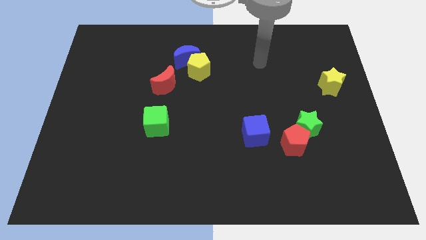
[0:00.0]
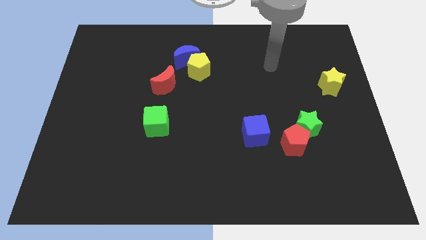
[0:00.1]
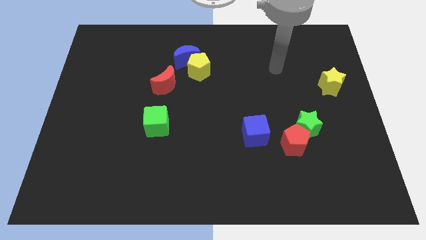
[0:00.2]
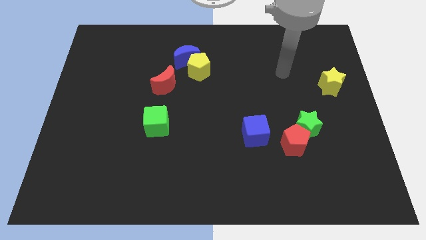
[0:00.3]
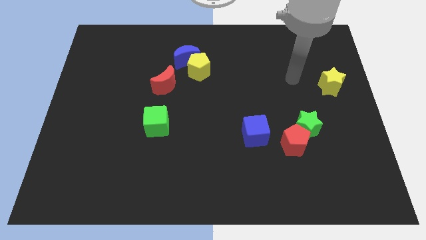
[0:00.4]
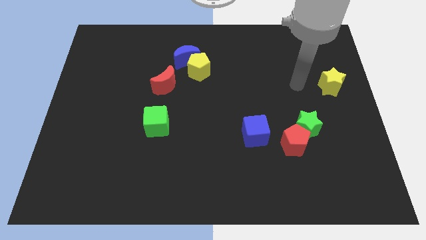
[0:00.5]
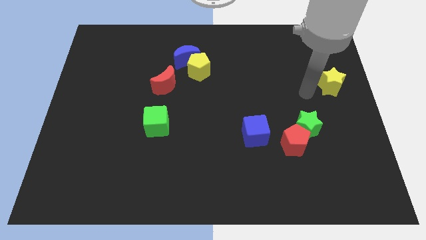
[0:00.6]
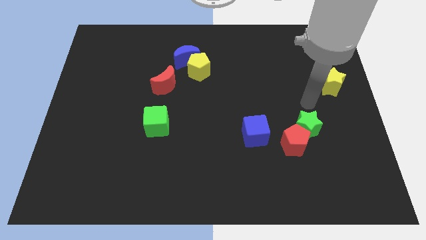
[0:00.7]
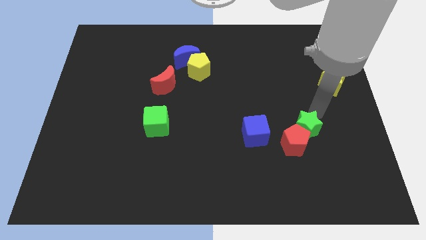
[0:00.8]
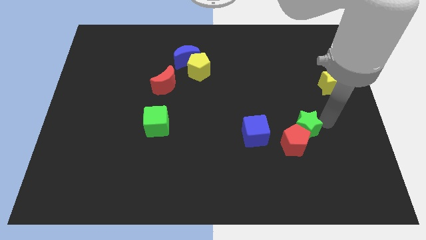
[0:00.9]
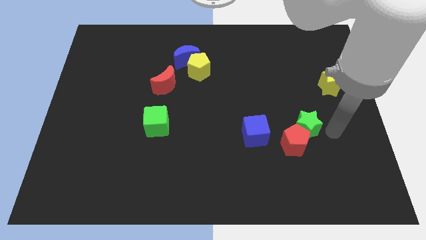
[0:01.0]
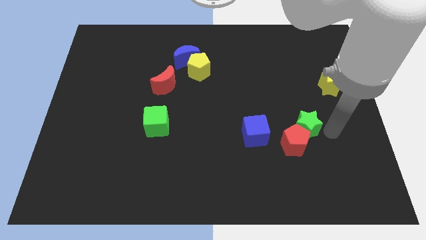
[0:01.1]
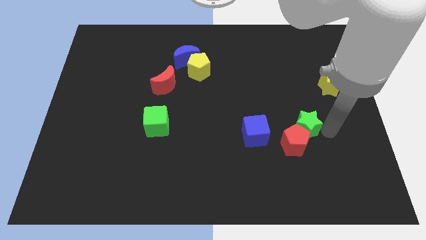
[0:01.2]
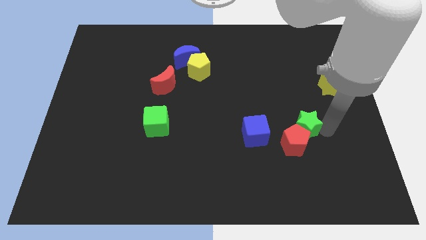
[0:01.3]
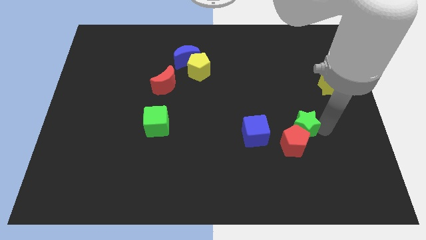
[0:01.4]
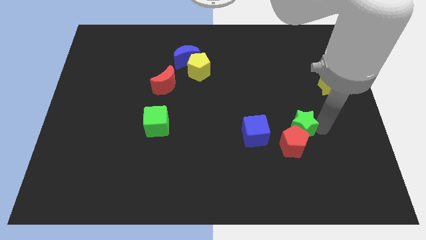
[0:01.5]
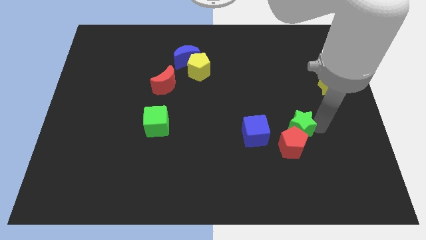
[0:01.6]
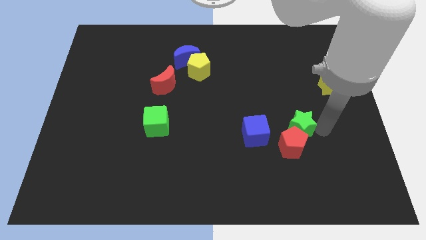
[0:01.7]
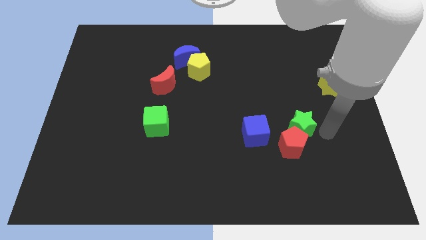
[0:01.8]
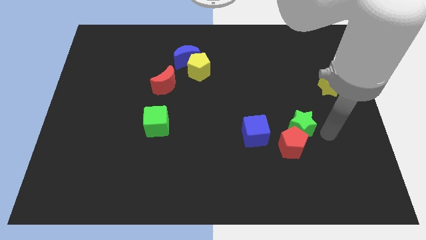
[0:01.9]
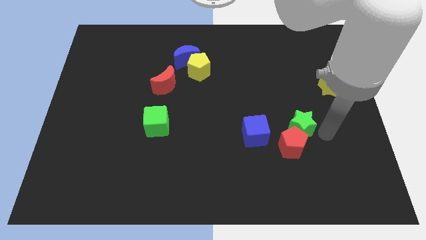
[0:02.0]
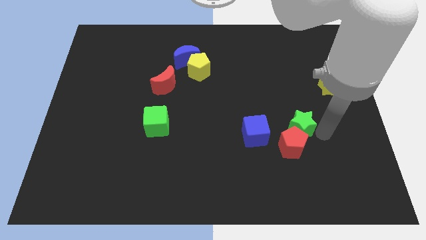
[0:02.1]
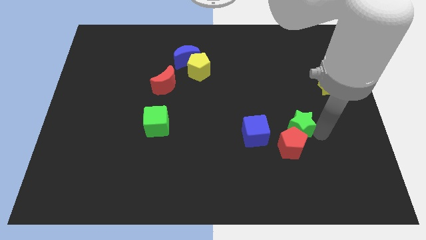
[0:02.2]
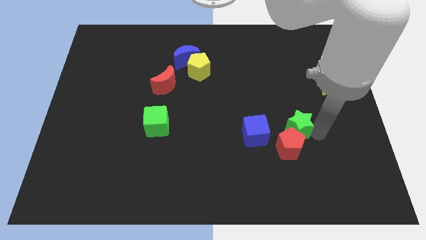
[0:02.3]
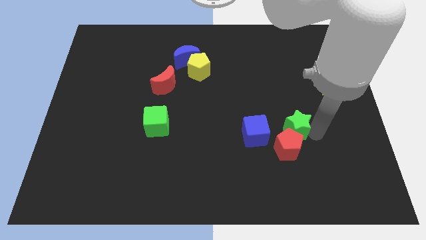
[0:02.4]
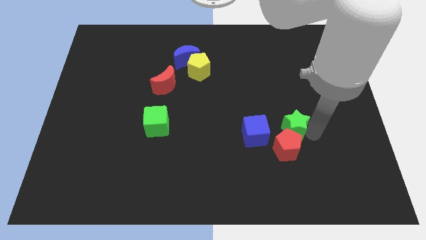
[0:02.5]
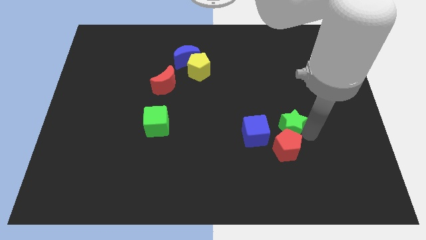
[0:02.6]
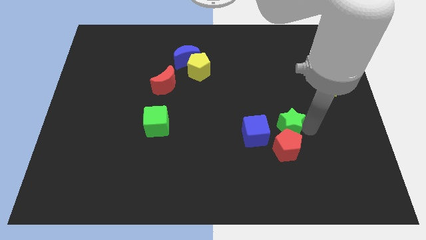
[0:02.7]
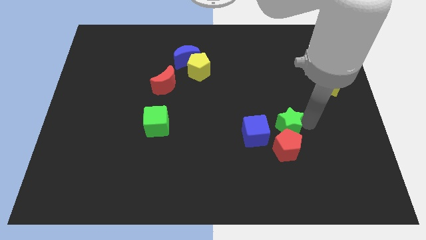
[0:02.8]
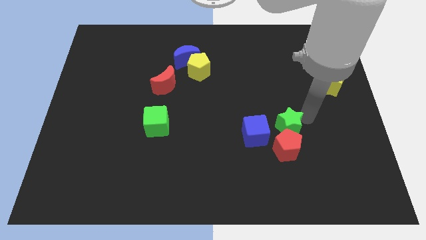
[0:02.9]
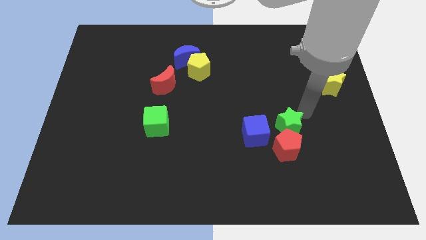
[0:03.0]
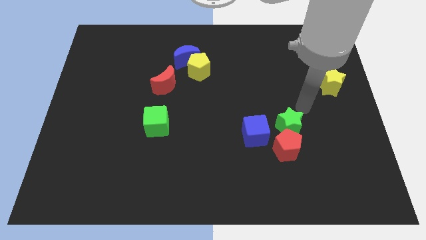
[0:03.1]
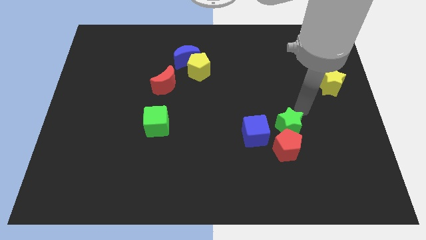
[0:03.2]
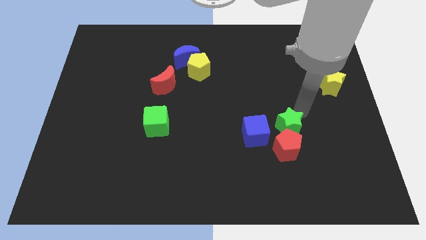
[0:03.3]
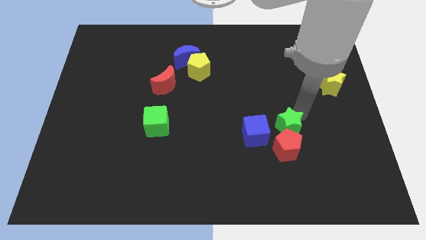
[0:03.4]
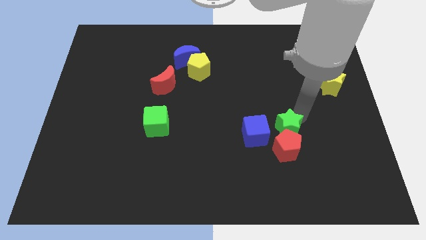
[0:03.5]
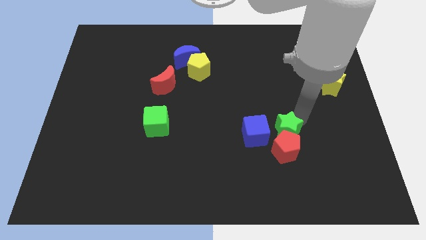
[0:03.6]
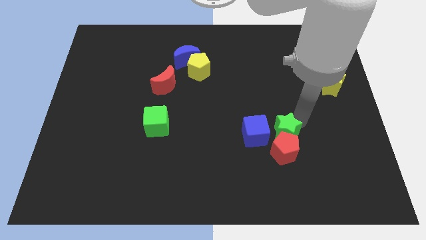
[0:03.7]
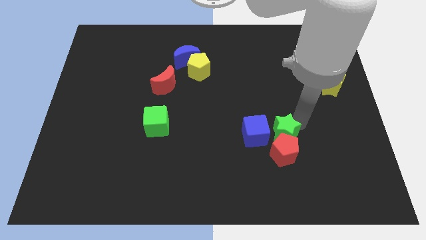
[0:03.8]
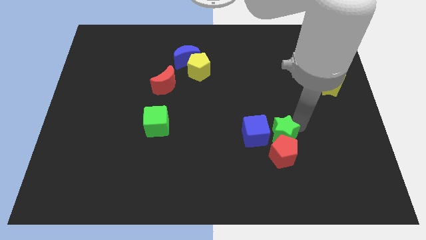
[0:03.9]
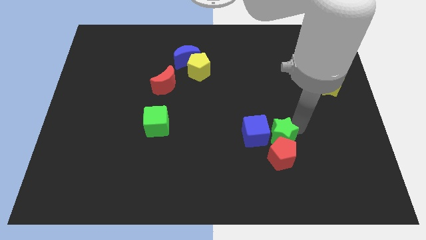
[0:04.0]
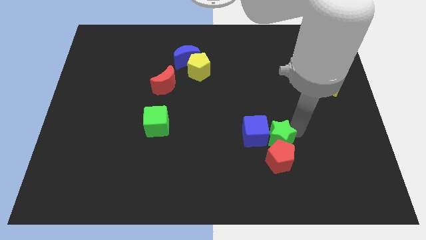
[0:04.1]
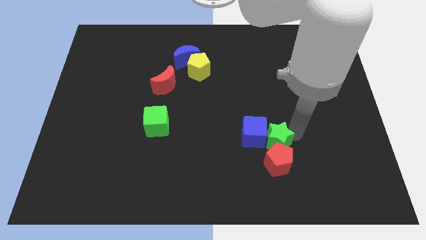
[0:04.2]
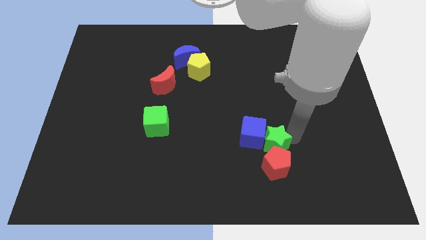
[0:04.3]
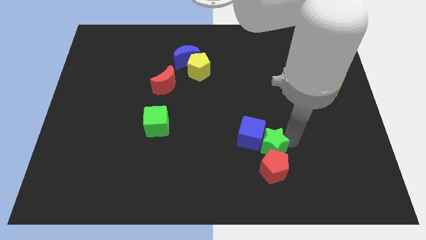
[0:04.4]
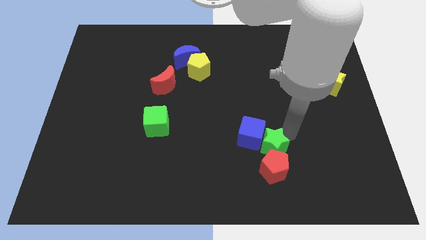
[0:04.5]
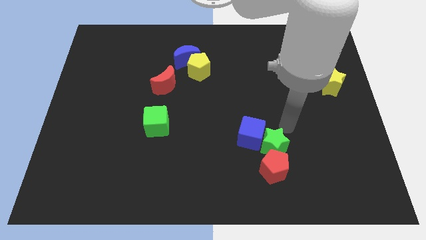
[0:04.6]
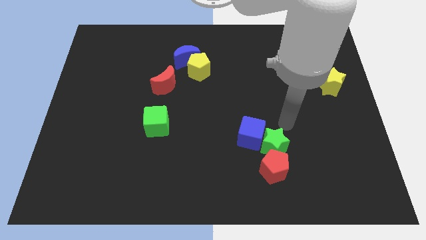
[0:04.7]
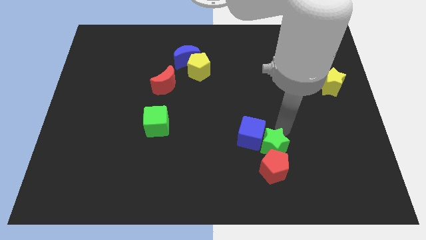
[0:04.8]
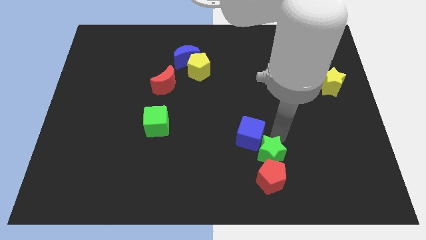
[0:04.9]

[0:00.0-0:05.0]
slide the green star to the bottom of the blue cube

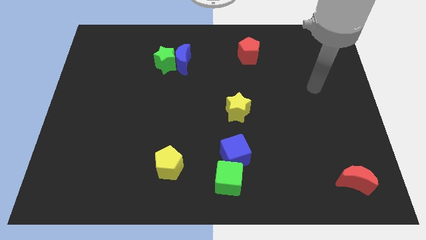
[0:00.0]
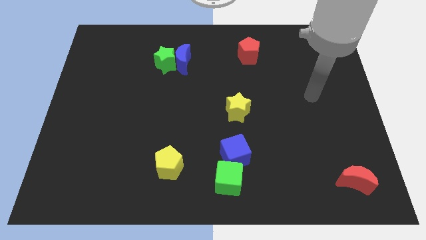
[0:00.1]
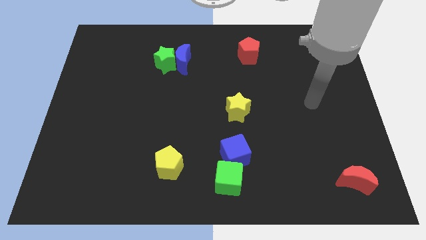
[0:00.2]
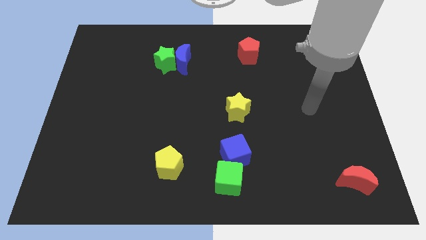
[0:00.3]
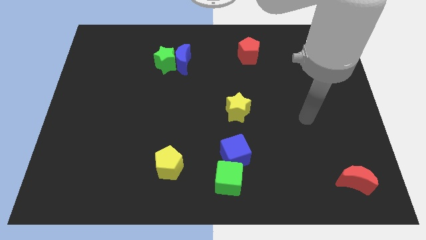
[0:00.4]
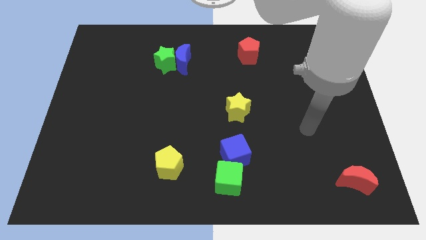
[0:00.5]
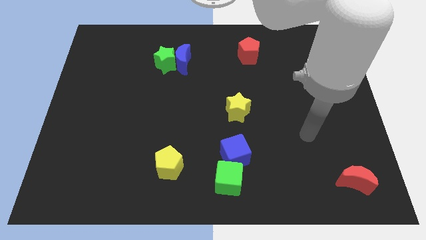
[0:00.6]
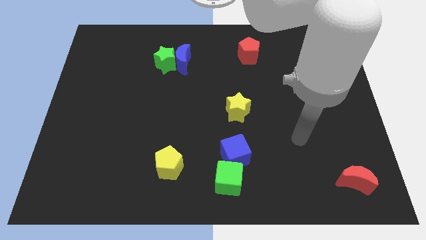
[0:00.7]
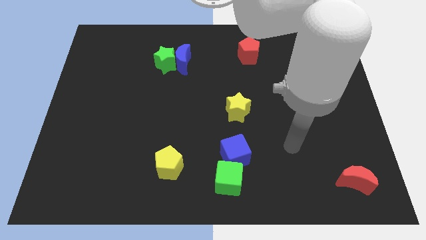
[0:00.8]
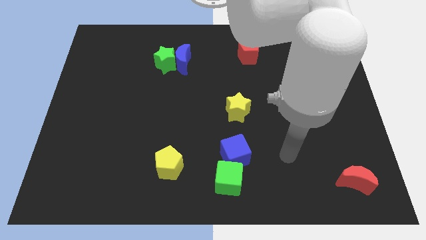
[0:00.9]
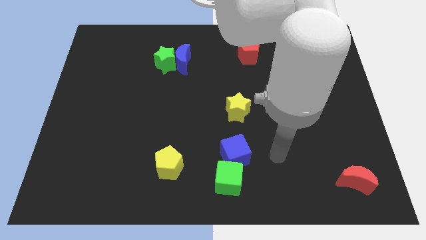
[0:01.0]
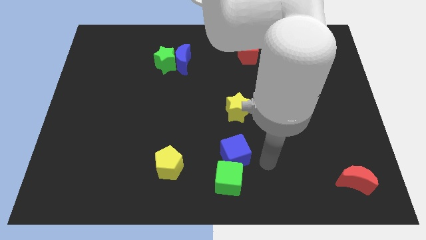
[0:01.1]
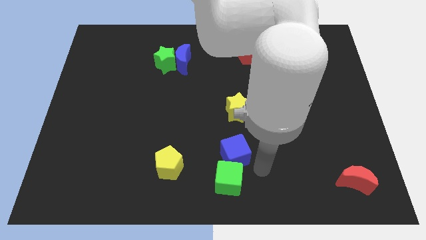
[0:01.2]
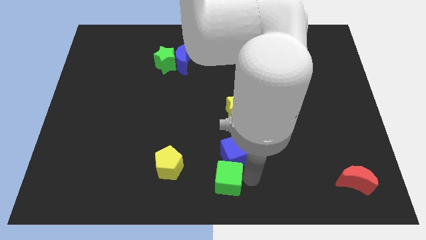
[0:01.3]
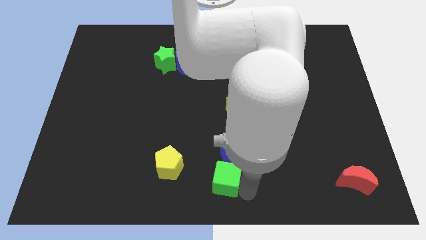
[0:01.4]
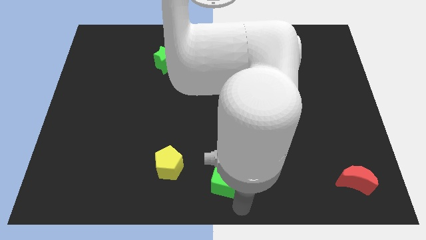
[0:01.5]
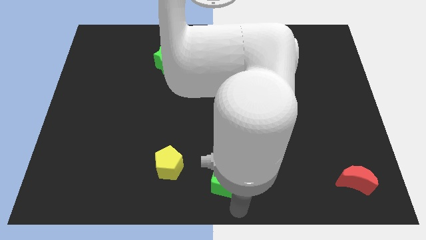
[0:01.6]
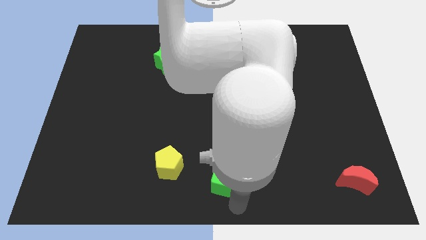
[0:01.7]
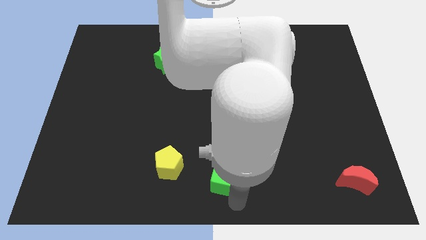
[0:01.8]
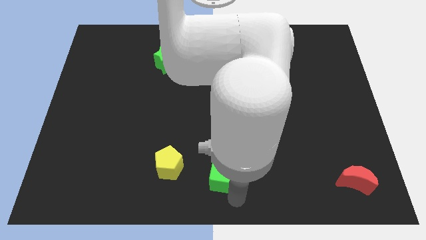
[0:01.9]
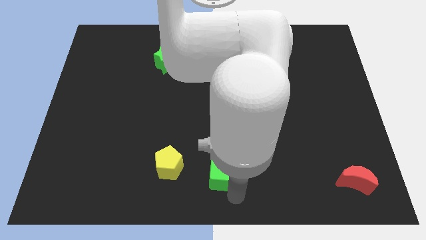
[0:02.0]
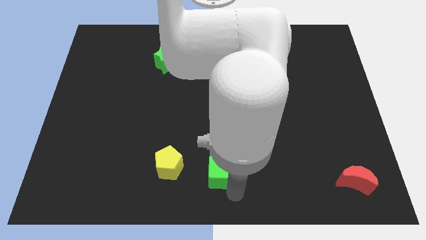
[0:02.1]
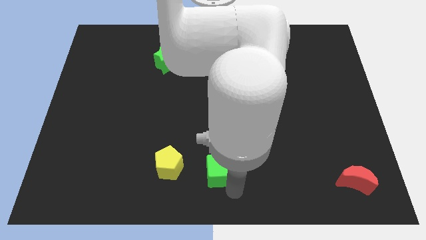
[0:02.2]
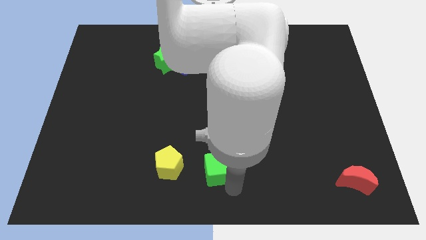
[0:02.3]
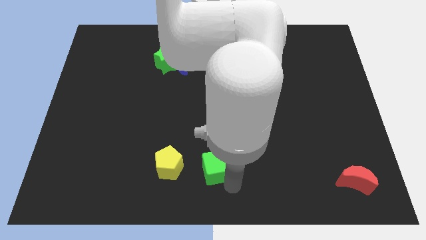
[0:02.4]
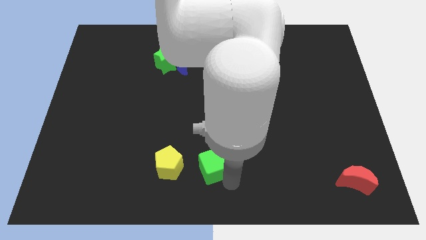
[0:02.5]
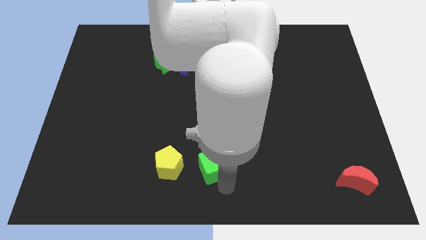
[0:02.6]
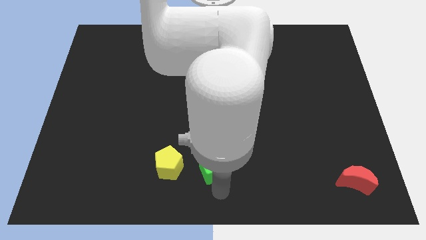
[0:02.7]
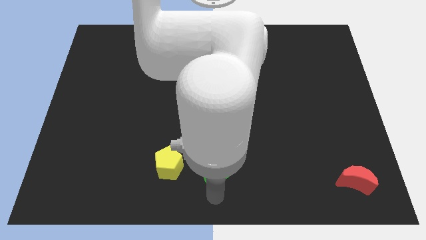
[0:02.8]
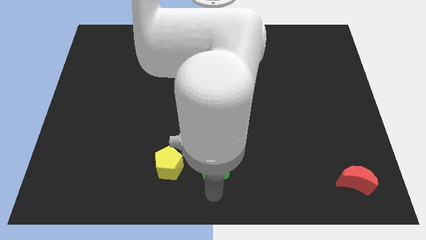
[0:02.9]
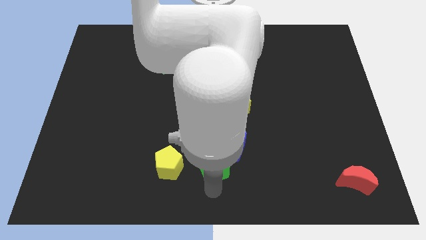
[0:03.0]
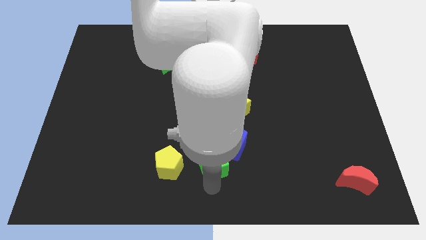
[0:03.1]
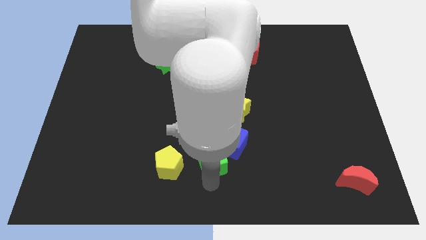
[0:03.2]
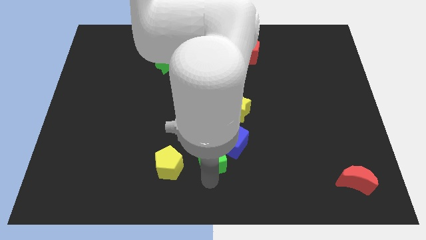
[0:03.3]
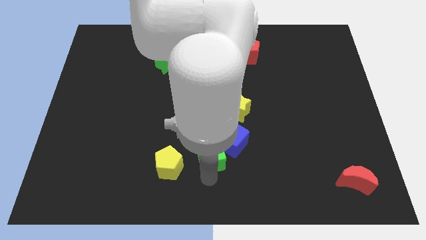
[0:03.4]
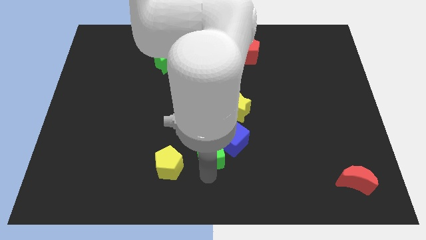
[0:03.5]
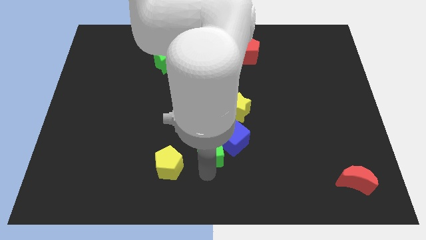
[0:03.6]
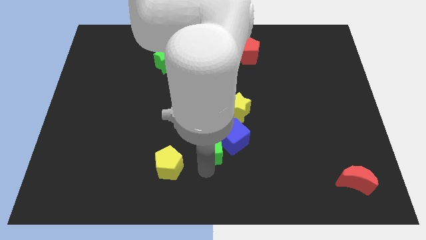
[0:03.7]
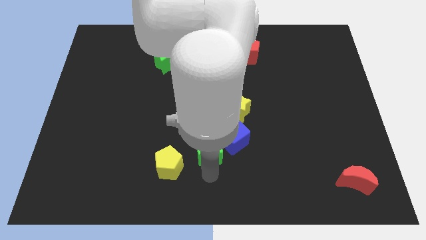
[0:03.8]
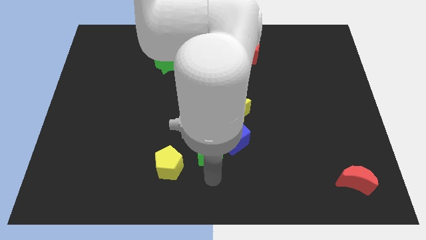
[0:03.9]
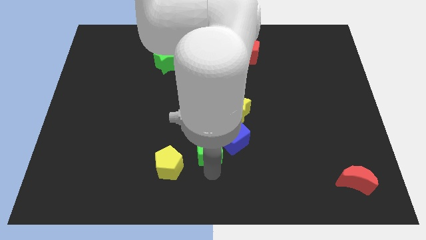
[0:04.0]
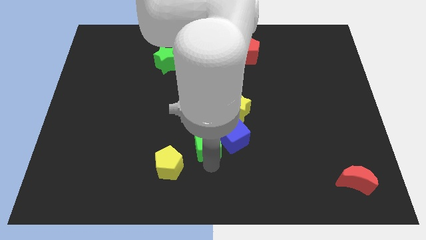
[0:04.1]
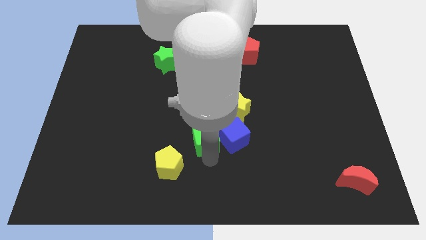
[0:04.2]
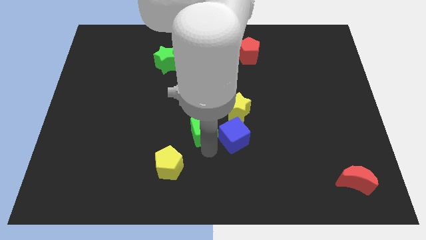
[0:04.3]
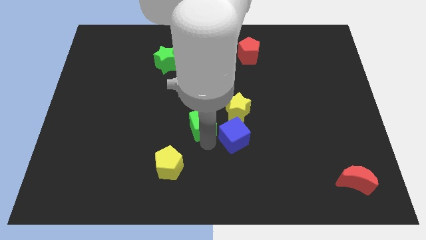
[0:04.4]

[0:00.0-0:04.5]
put the green cube just left of the yellow star
